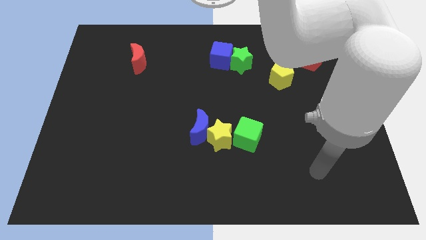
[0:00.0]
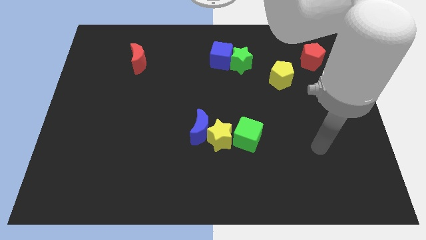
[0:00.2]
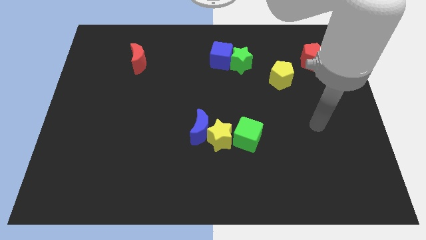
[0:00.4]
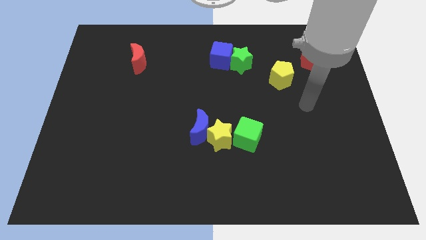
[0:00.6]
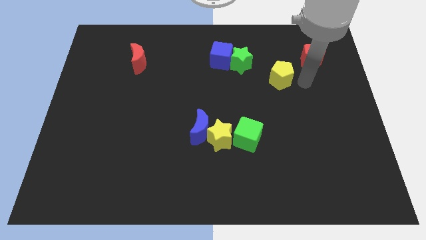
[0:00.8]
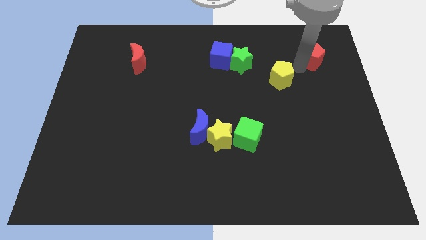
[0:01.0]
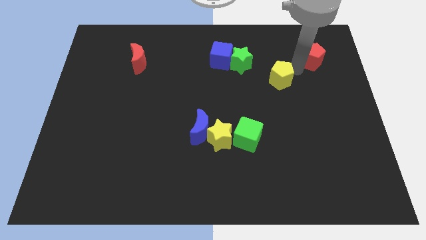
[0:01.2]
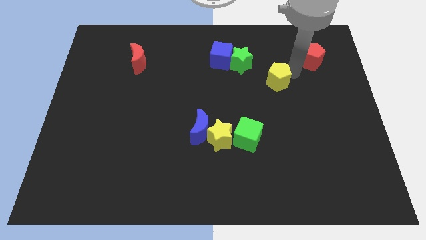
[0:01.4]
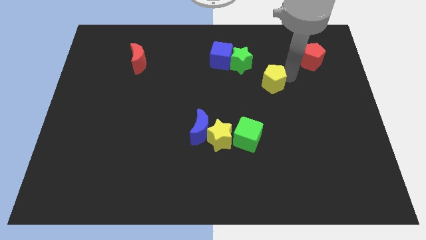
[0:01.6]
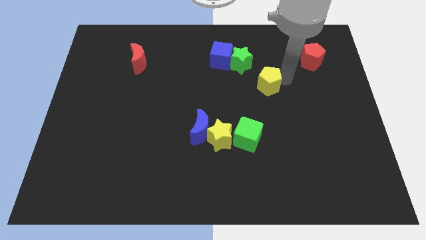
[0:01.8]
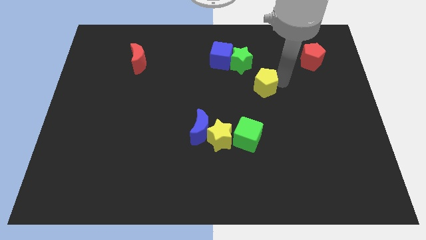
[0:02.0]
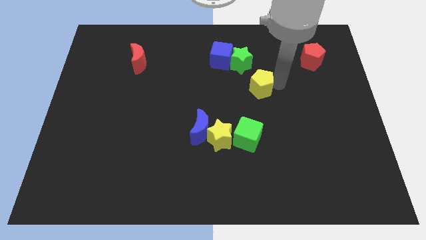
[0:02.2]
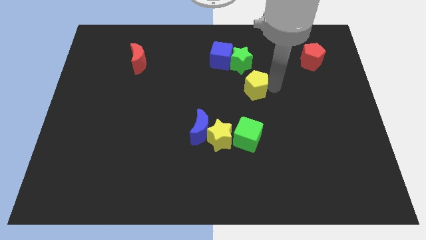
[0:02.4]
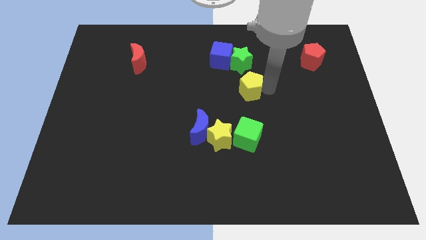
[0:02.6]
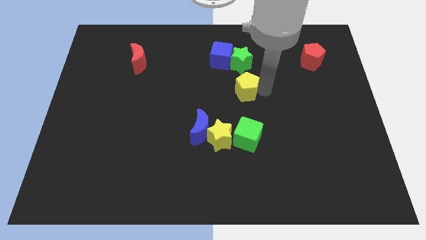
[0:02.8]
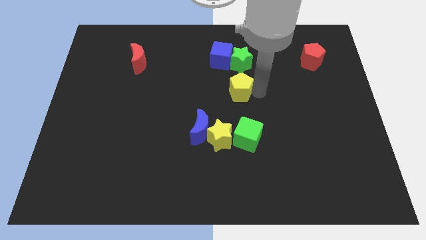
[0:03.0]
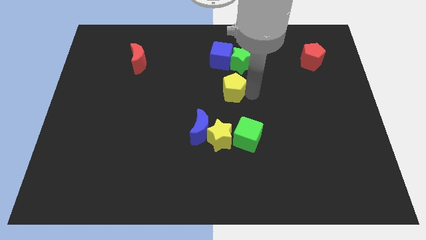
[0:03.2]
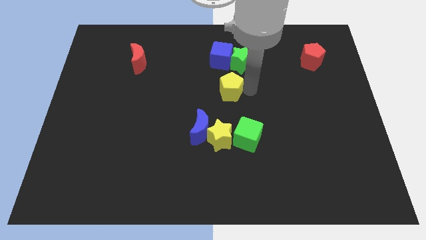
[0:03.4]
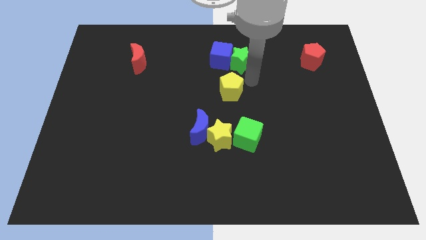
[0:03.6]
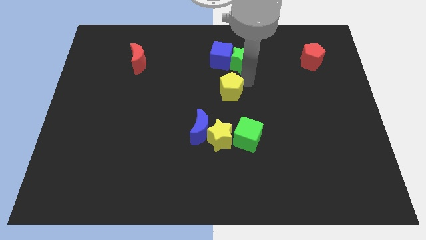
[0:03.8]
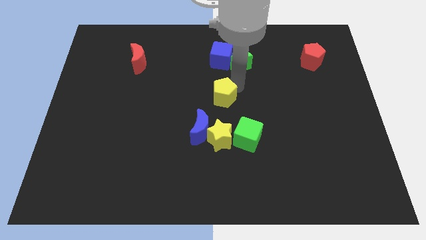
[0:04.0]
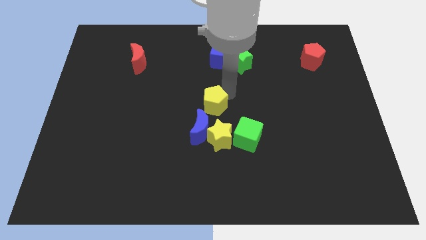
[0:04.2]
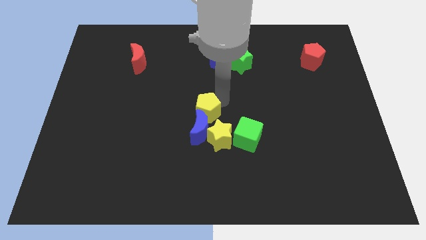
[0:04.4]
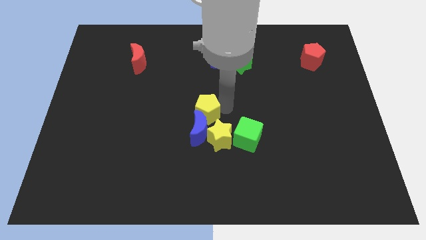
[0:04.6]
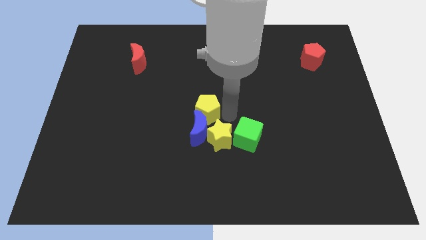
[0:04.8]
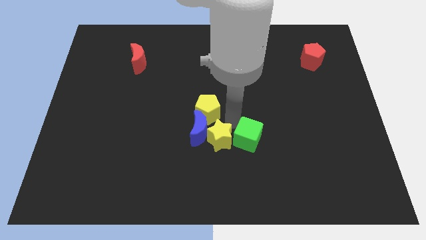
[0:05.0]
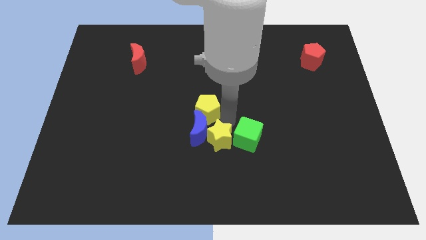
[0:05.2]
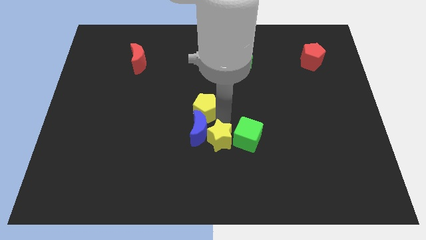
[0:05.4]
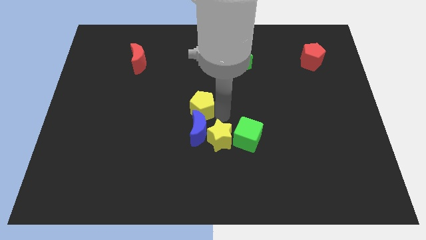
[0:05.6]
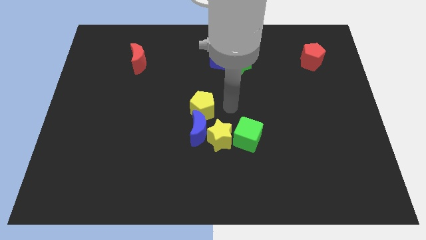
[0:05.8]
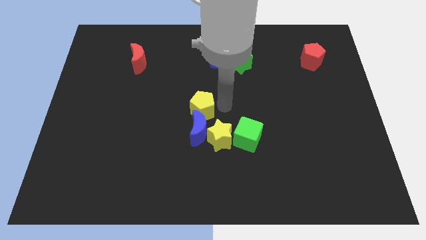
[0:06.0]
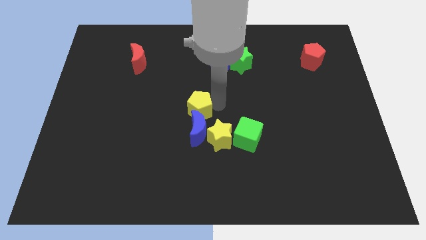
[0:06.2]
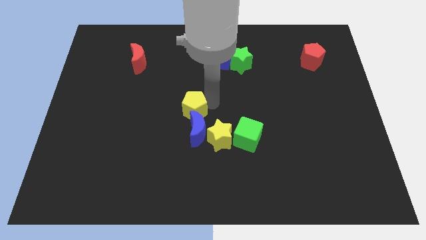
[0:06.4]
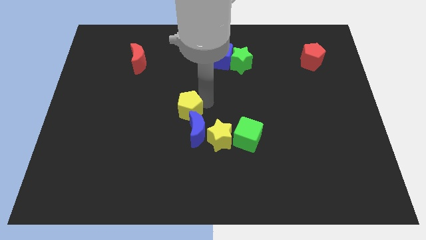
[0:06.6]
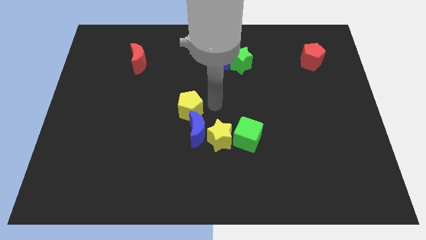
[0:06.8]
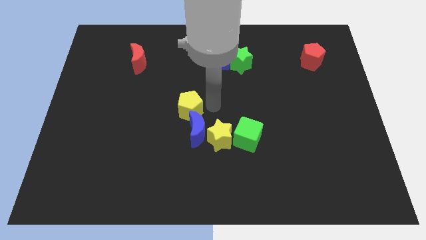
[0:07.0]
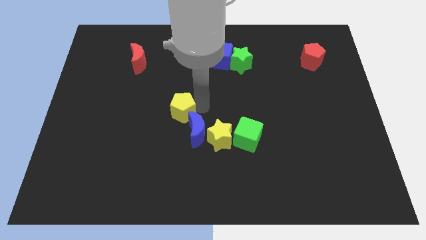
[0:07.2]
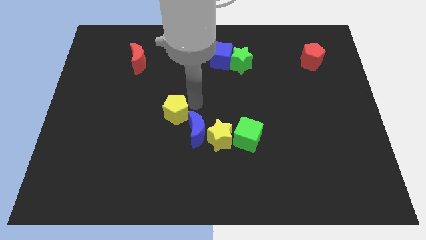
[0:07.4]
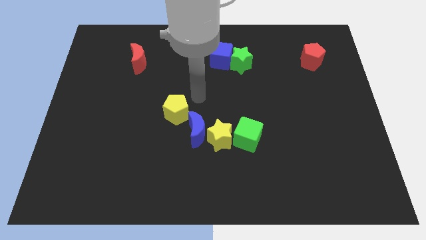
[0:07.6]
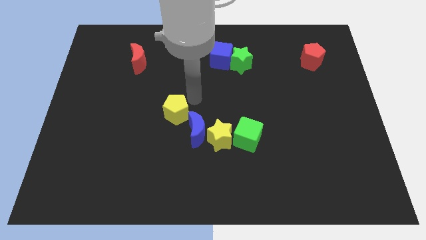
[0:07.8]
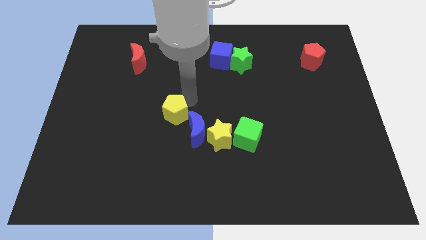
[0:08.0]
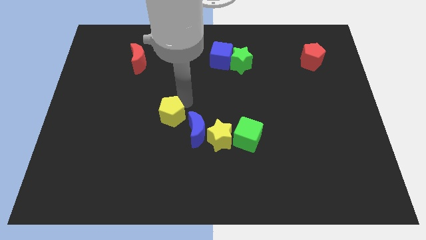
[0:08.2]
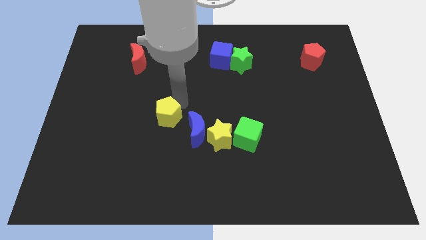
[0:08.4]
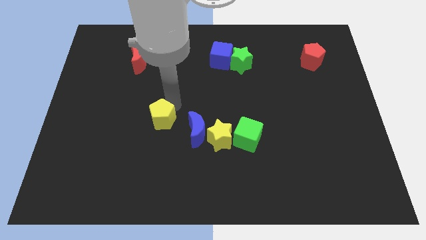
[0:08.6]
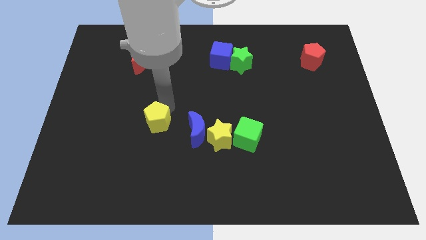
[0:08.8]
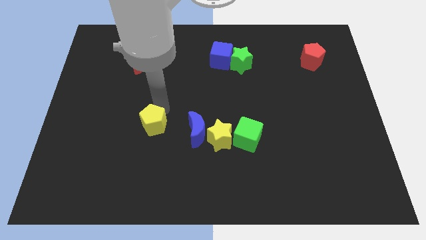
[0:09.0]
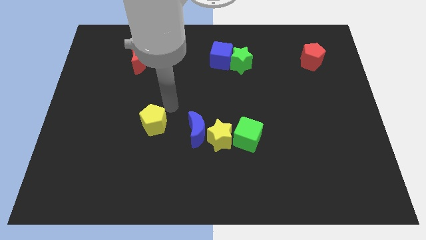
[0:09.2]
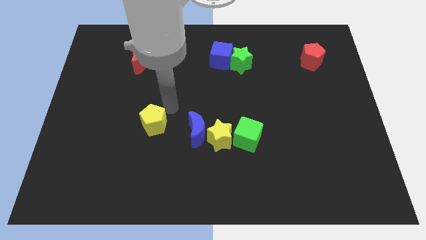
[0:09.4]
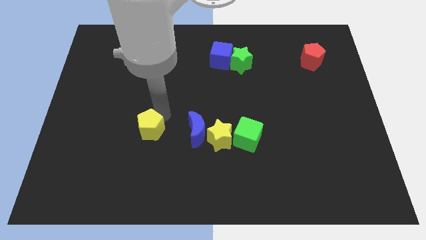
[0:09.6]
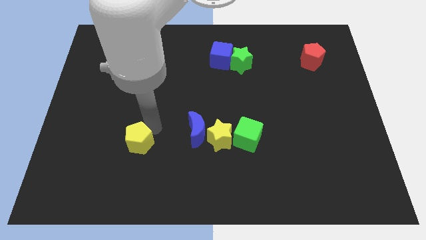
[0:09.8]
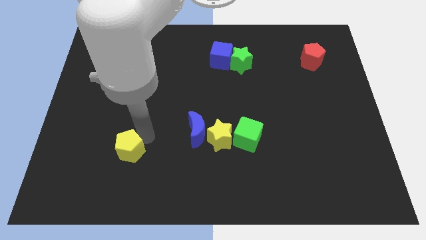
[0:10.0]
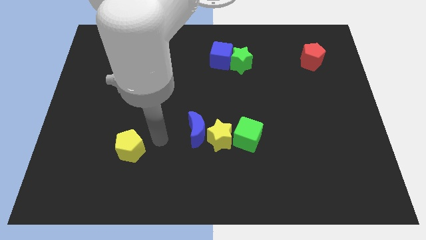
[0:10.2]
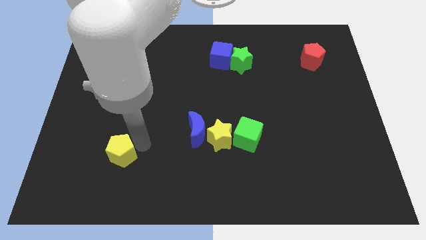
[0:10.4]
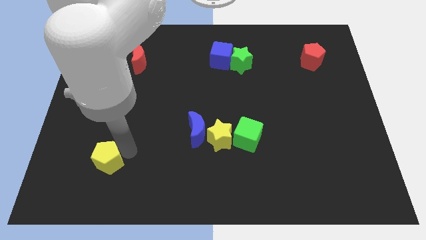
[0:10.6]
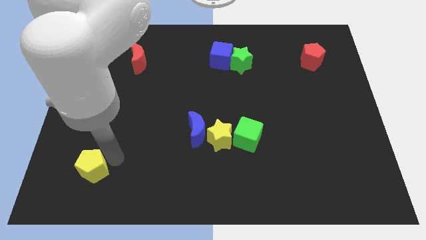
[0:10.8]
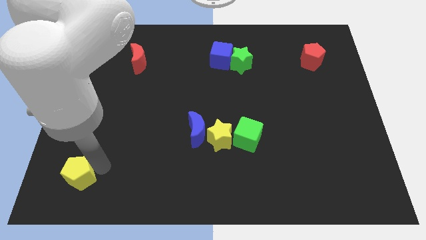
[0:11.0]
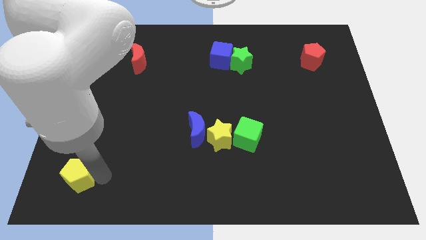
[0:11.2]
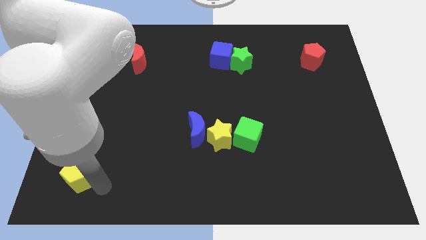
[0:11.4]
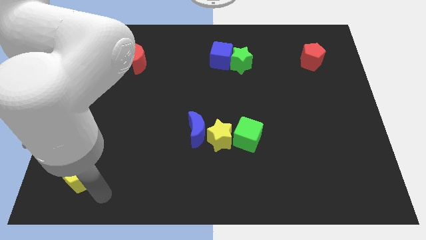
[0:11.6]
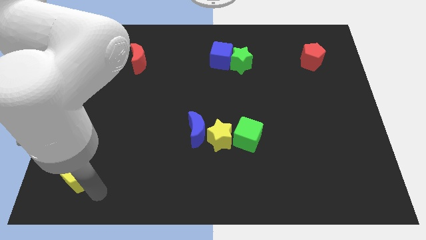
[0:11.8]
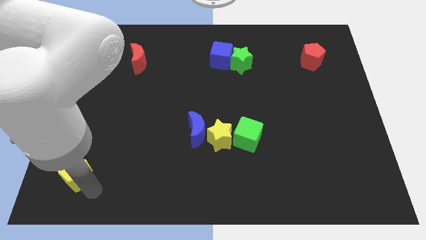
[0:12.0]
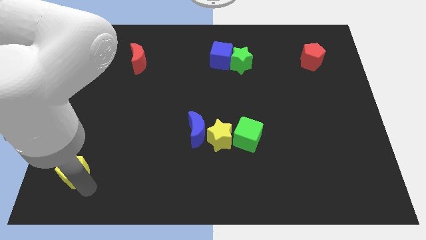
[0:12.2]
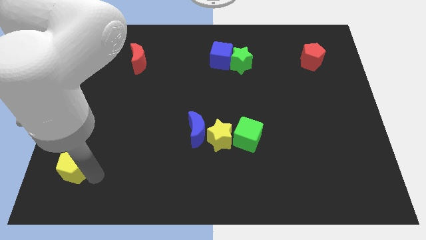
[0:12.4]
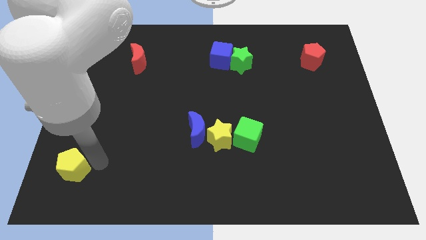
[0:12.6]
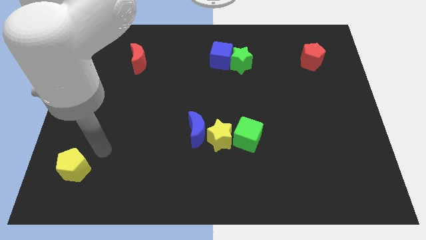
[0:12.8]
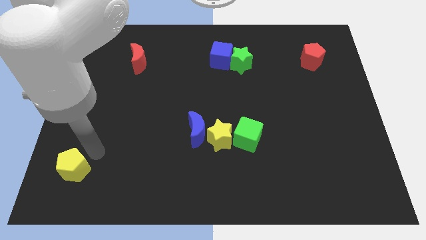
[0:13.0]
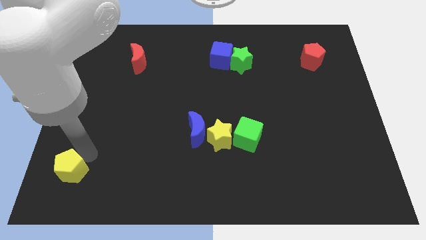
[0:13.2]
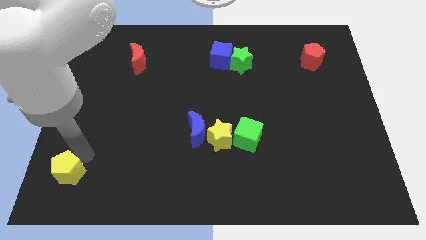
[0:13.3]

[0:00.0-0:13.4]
move the yellow pentagon to the lower left corner
